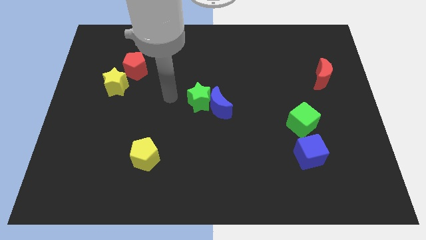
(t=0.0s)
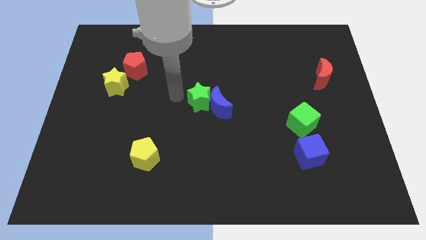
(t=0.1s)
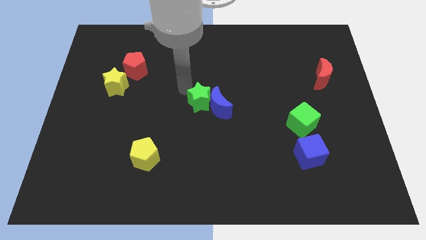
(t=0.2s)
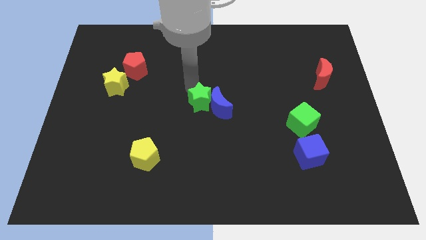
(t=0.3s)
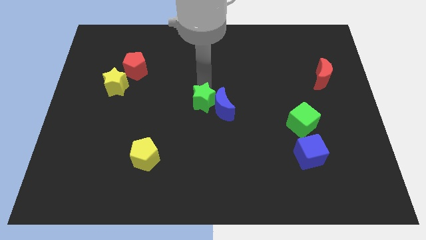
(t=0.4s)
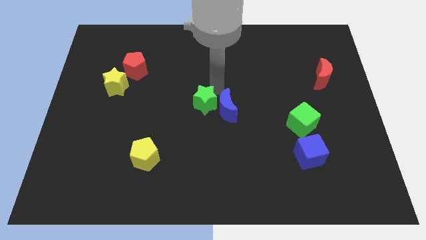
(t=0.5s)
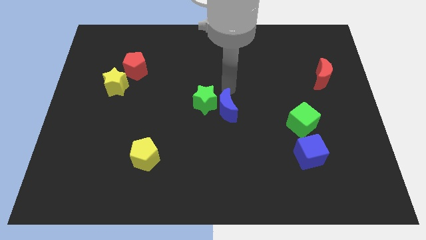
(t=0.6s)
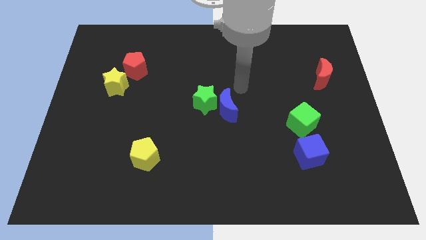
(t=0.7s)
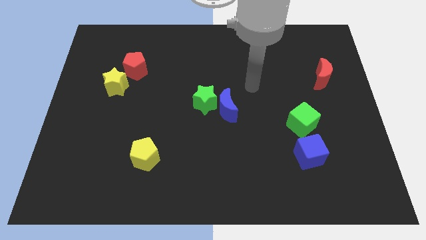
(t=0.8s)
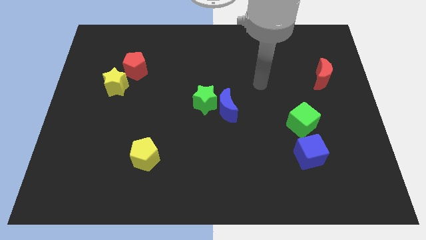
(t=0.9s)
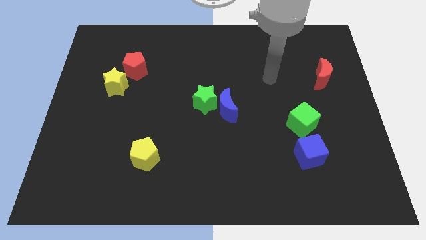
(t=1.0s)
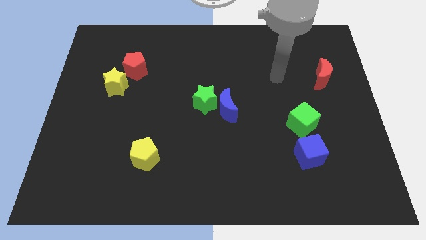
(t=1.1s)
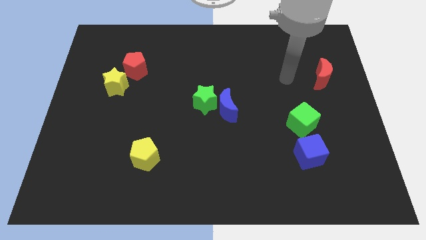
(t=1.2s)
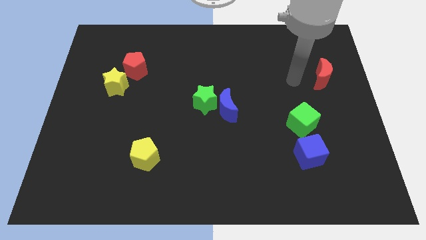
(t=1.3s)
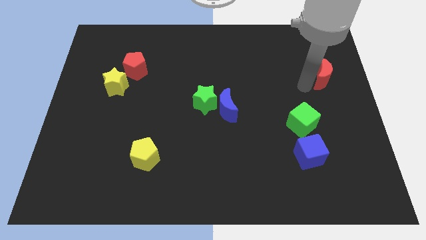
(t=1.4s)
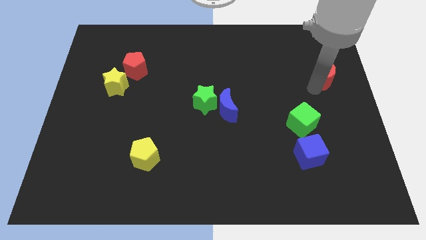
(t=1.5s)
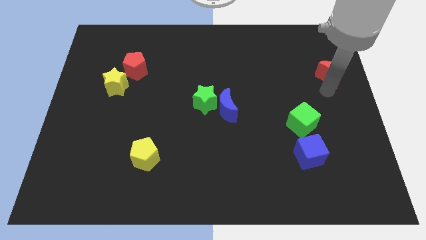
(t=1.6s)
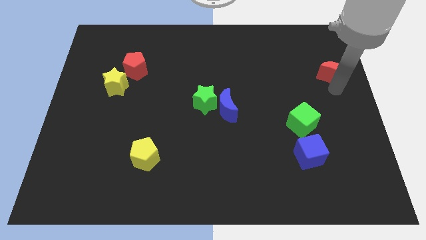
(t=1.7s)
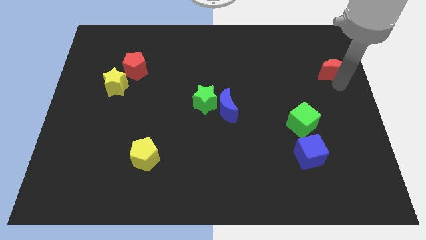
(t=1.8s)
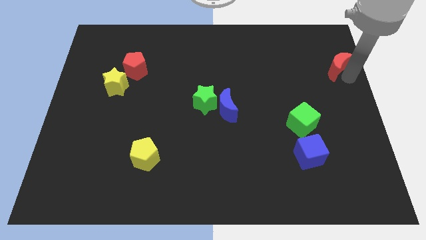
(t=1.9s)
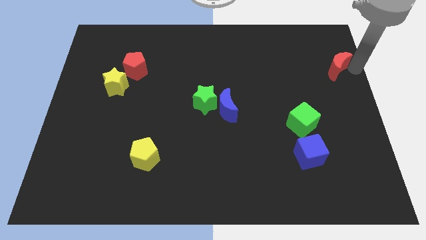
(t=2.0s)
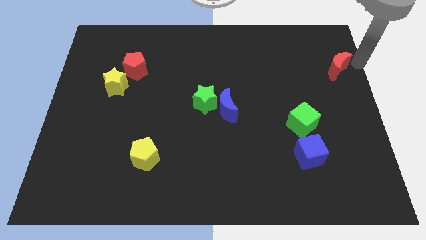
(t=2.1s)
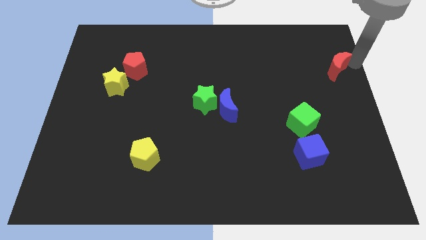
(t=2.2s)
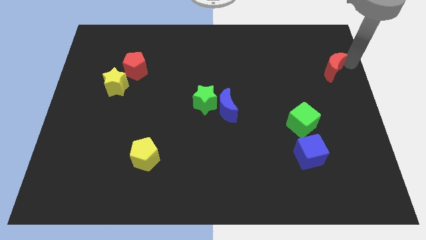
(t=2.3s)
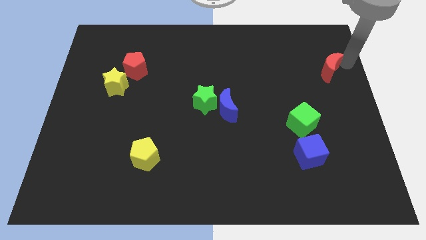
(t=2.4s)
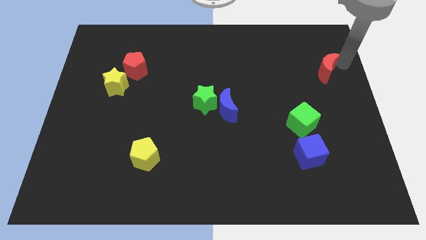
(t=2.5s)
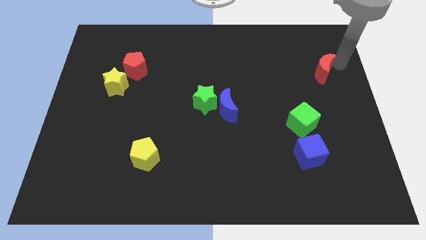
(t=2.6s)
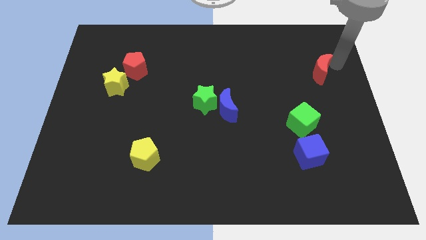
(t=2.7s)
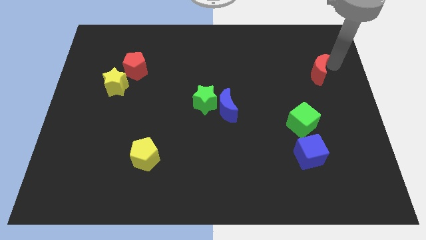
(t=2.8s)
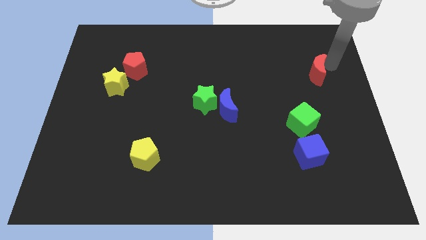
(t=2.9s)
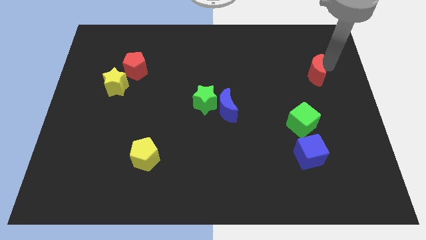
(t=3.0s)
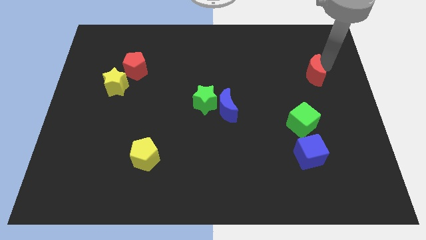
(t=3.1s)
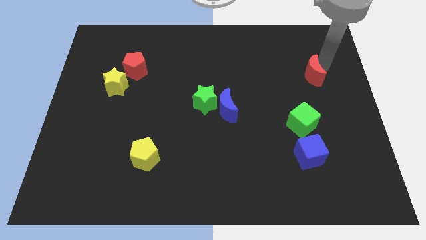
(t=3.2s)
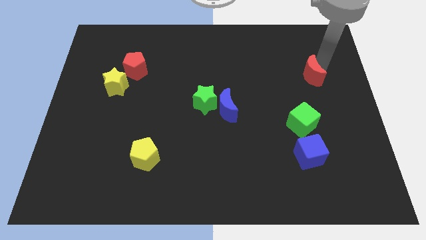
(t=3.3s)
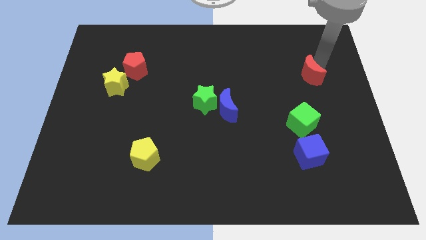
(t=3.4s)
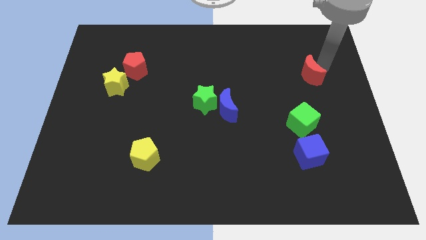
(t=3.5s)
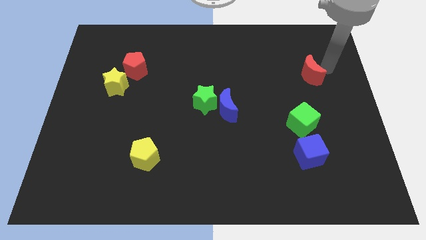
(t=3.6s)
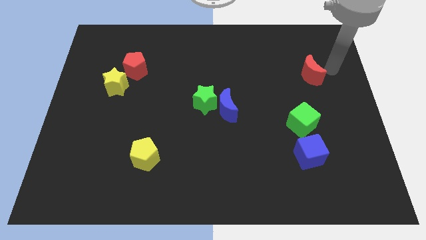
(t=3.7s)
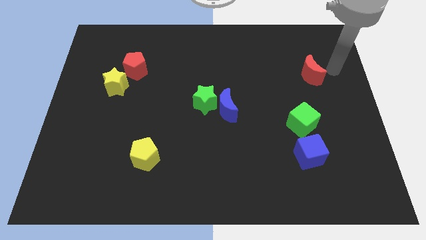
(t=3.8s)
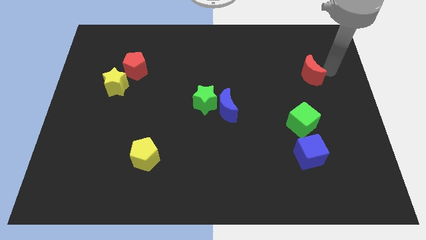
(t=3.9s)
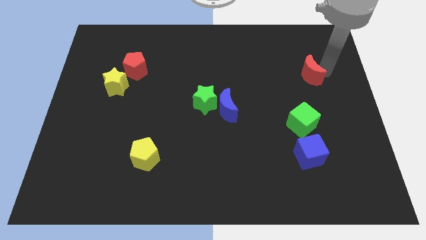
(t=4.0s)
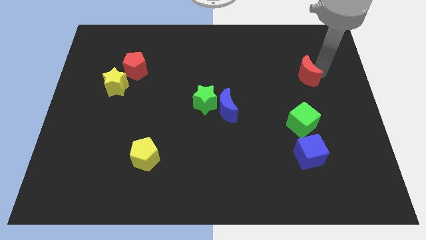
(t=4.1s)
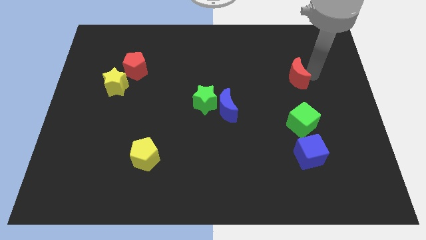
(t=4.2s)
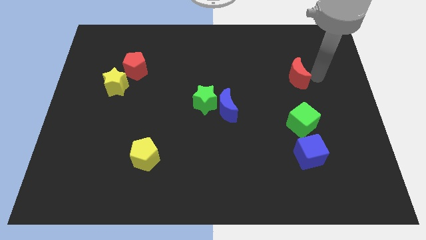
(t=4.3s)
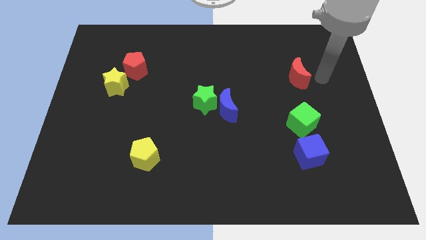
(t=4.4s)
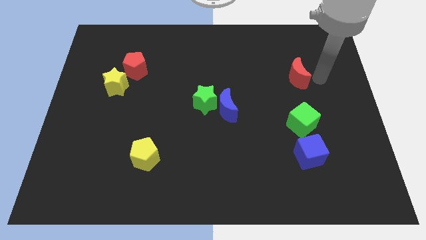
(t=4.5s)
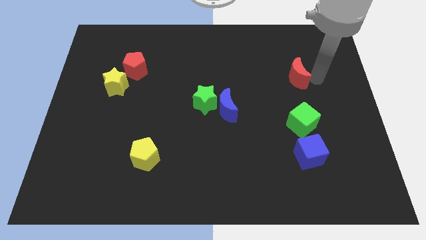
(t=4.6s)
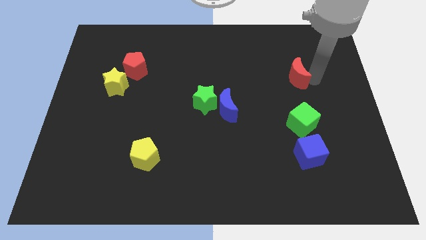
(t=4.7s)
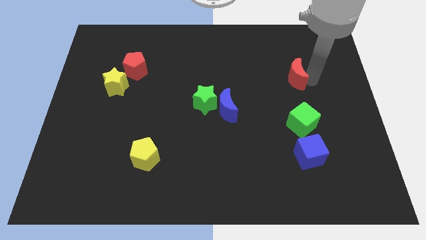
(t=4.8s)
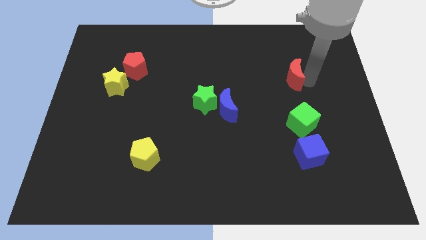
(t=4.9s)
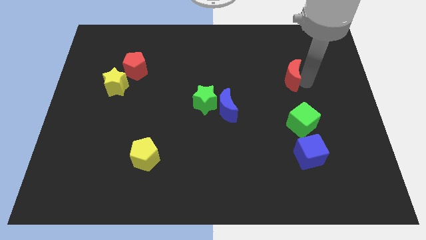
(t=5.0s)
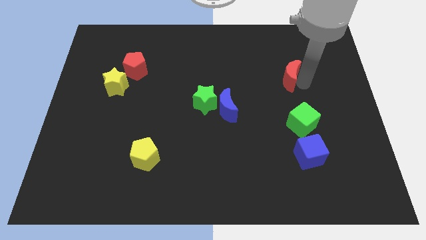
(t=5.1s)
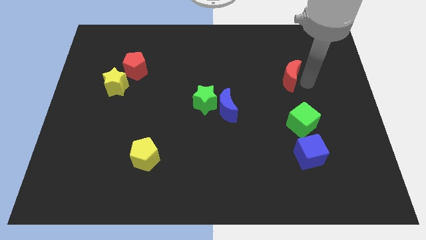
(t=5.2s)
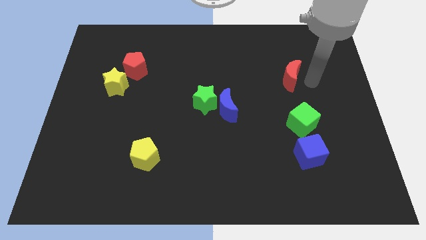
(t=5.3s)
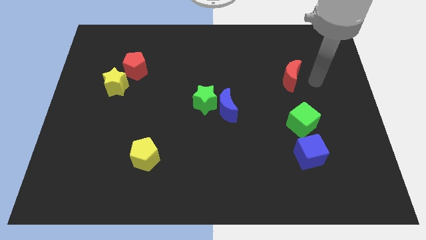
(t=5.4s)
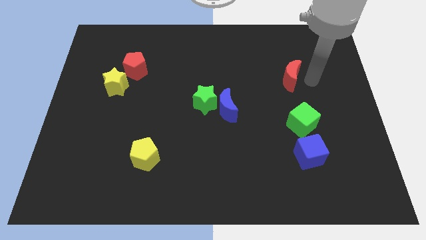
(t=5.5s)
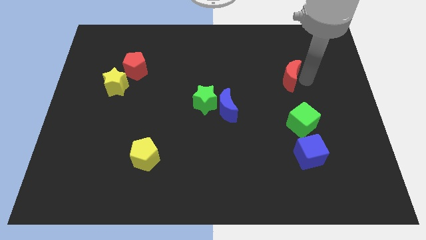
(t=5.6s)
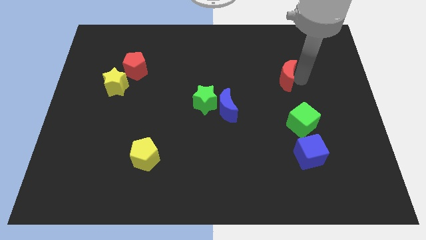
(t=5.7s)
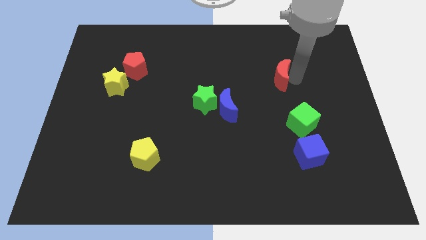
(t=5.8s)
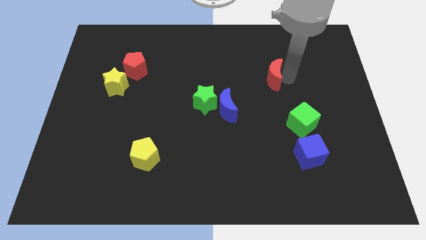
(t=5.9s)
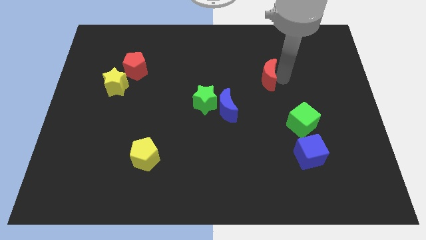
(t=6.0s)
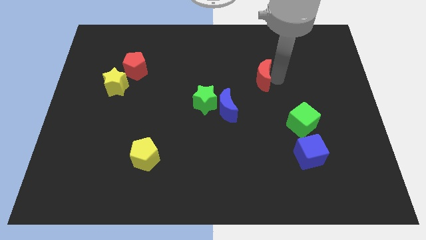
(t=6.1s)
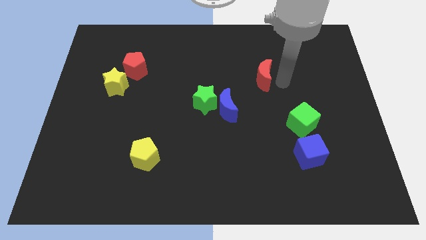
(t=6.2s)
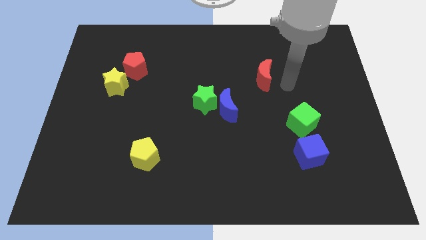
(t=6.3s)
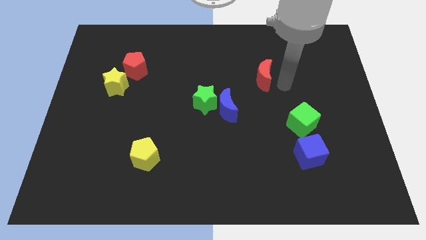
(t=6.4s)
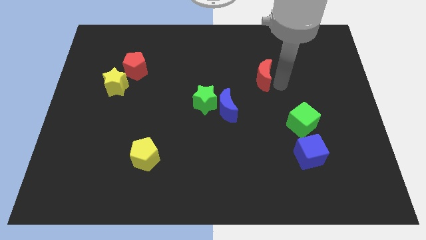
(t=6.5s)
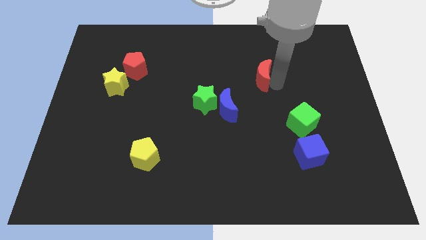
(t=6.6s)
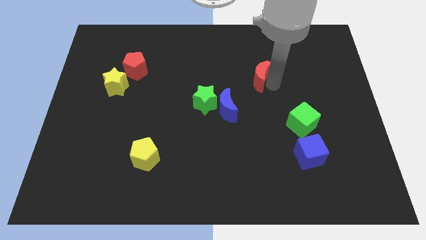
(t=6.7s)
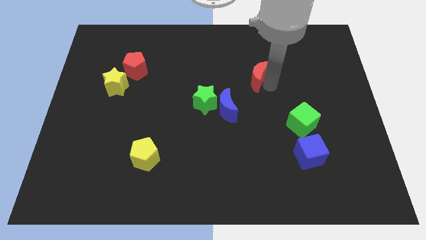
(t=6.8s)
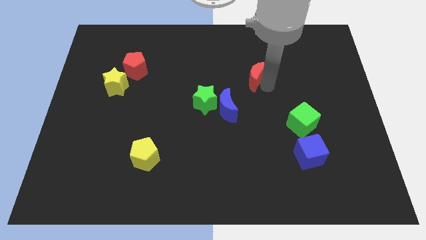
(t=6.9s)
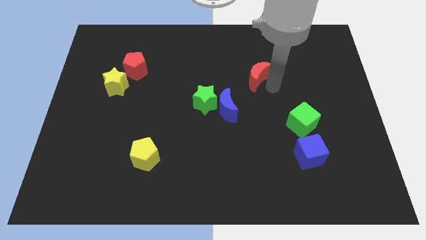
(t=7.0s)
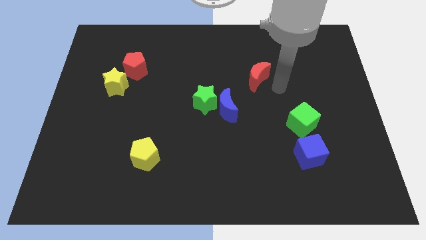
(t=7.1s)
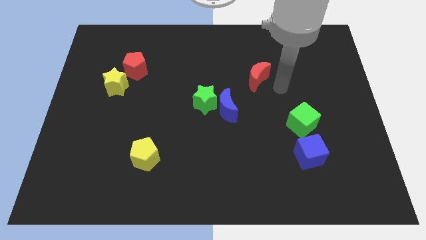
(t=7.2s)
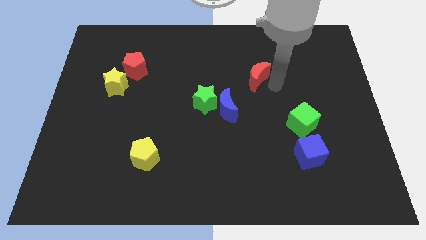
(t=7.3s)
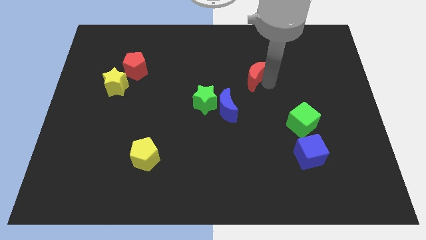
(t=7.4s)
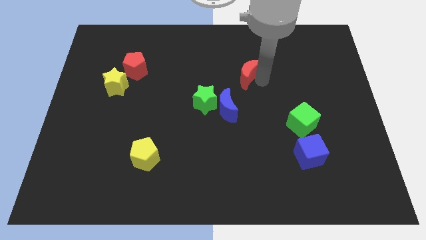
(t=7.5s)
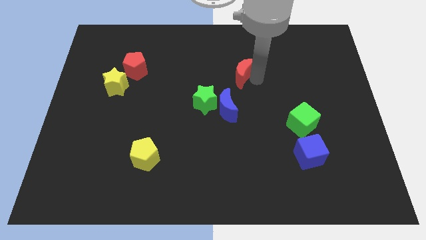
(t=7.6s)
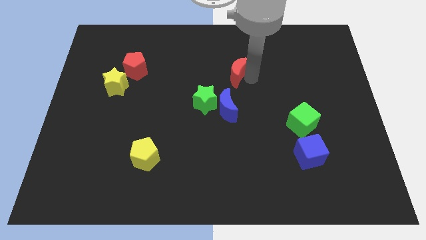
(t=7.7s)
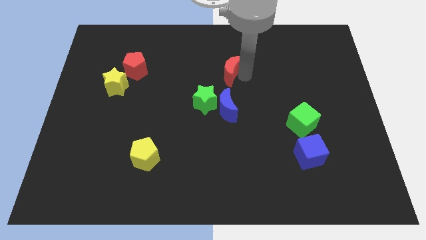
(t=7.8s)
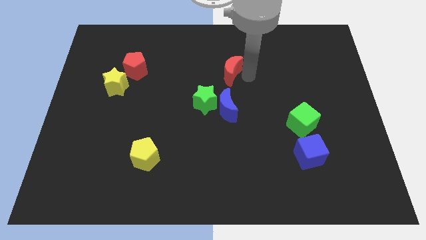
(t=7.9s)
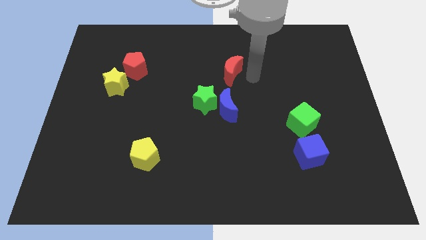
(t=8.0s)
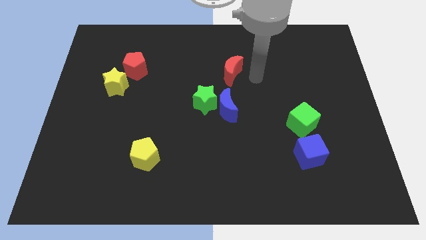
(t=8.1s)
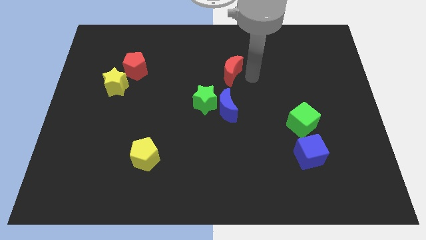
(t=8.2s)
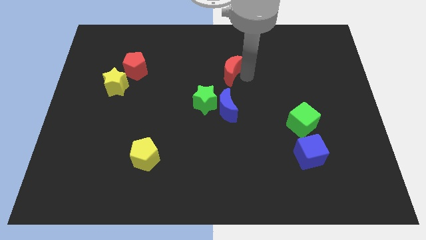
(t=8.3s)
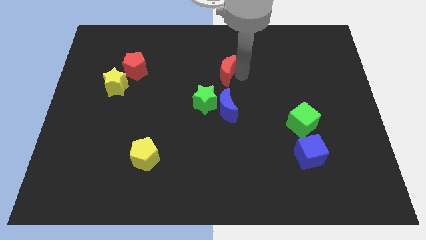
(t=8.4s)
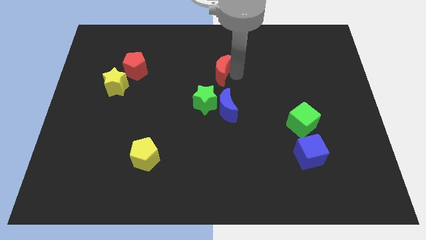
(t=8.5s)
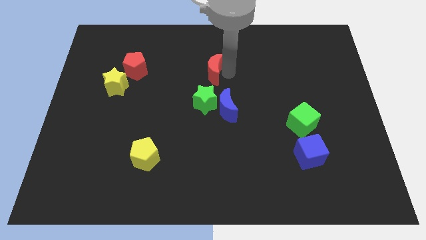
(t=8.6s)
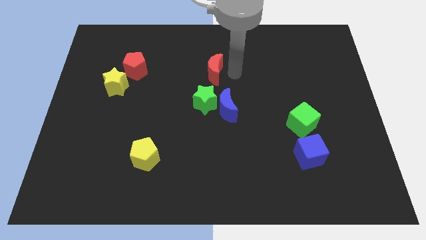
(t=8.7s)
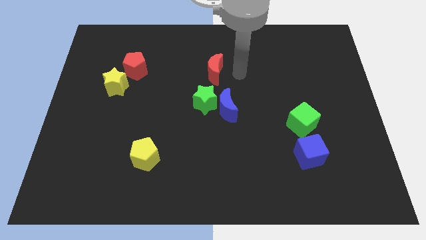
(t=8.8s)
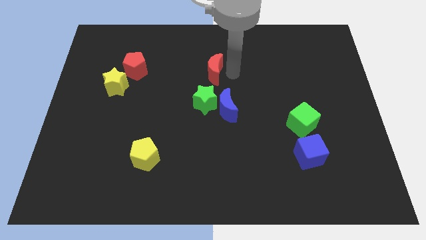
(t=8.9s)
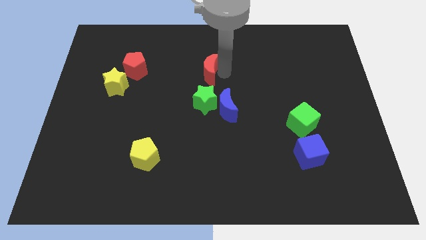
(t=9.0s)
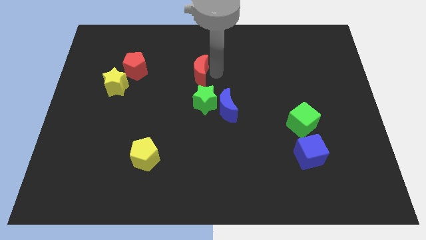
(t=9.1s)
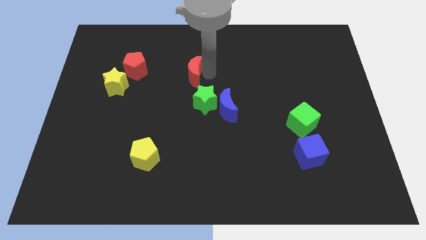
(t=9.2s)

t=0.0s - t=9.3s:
put the red moon right of the red pentagon
